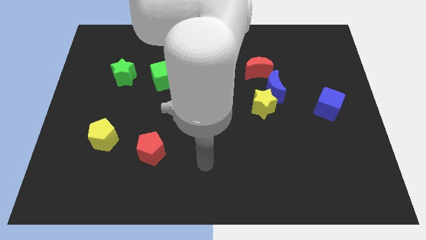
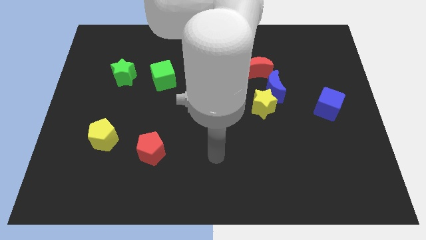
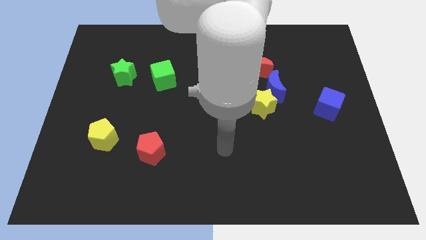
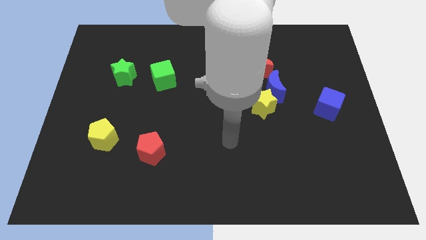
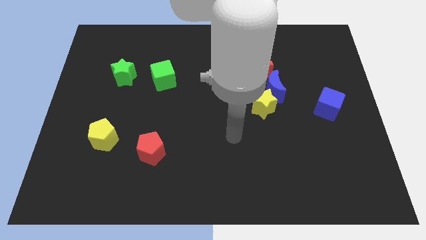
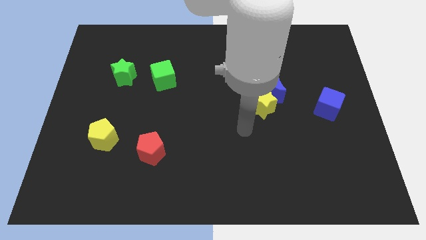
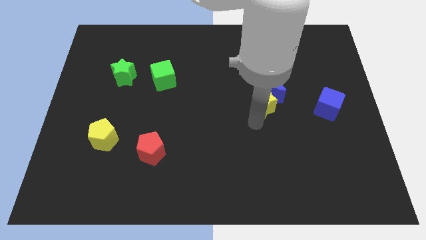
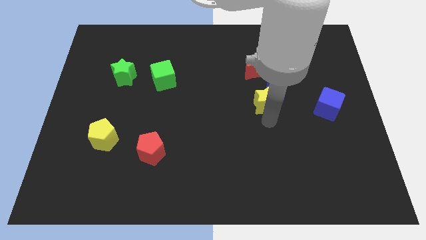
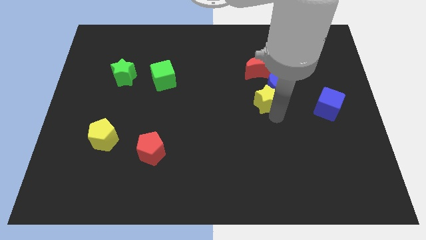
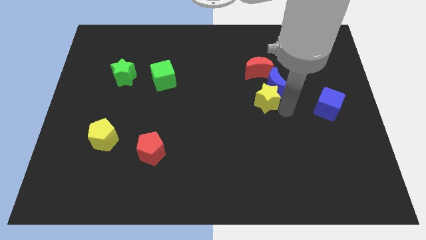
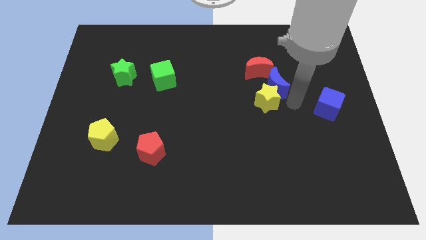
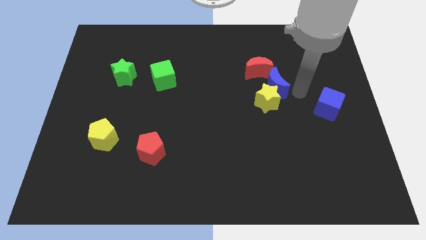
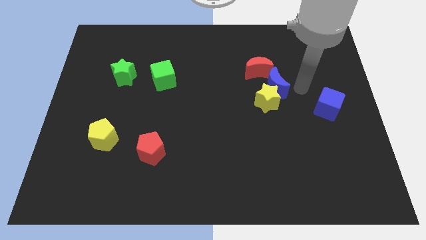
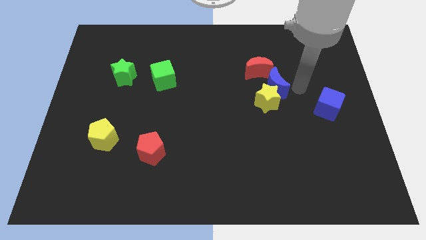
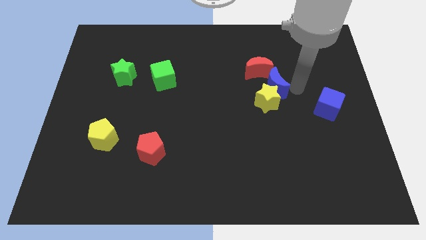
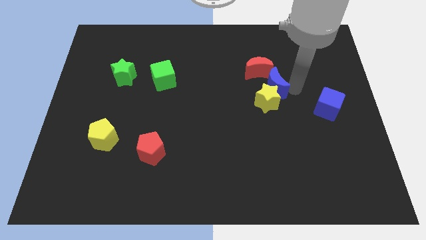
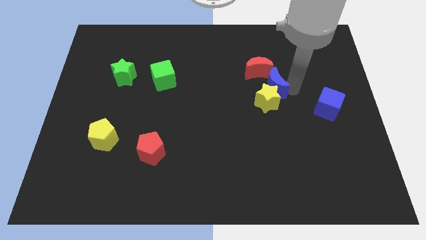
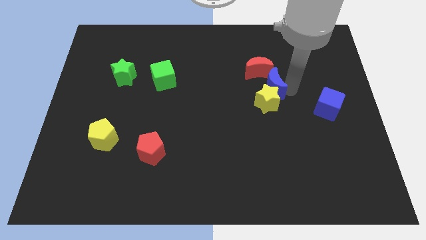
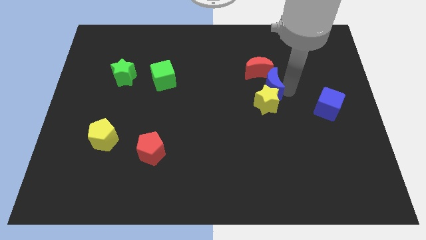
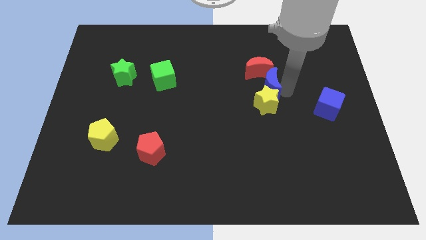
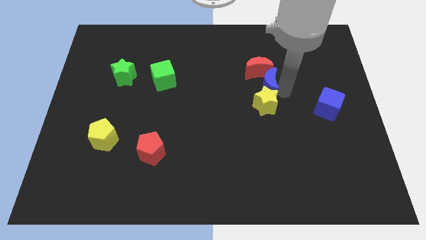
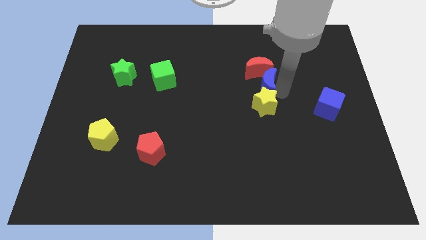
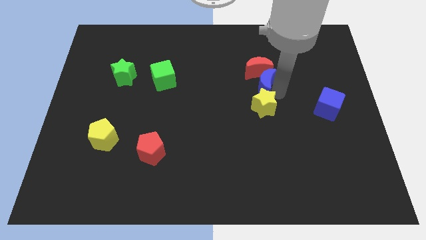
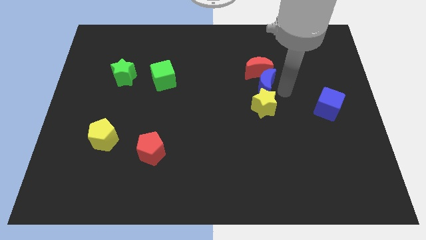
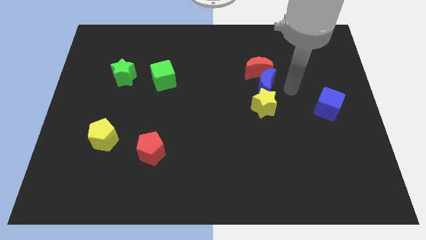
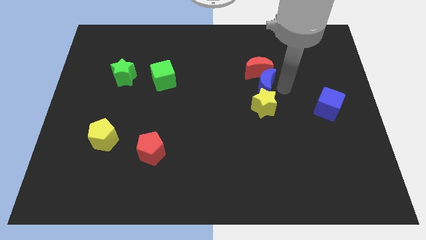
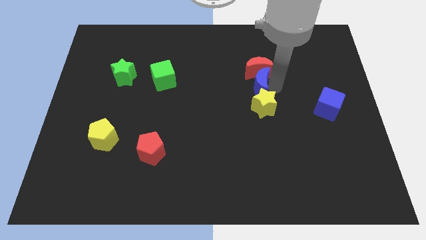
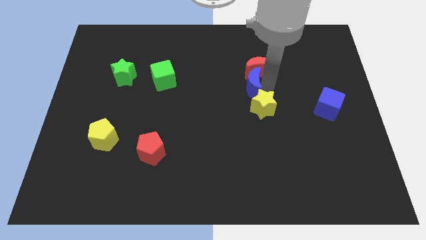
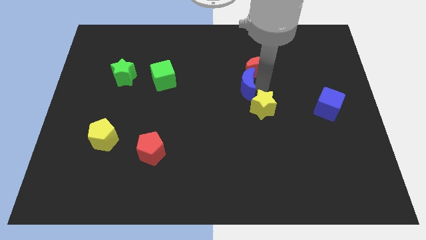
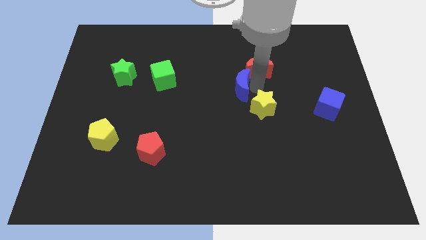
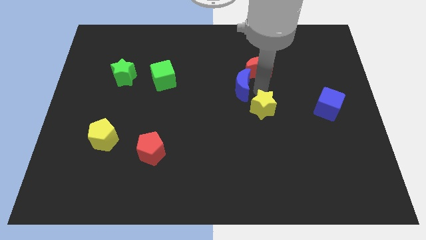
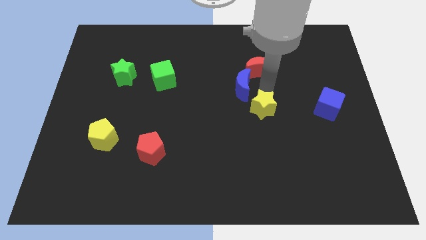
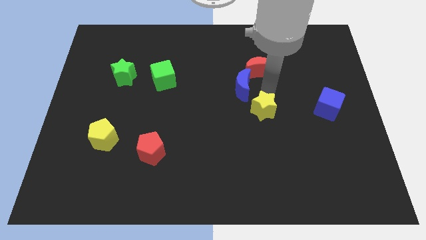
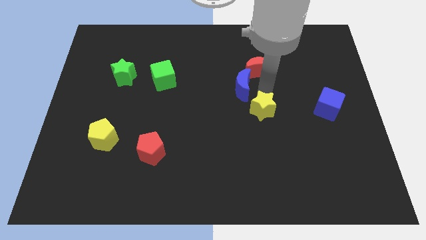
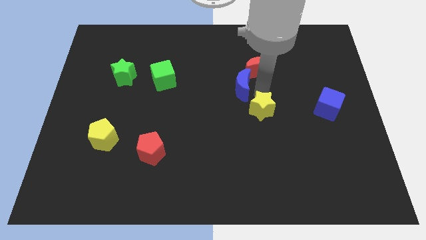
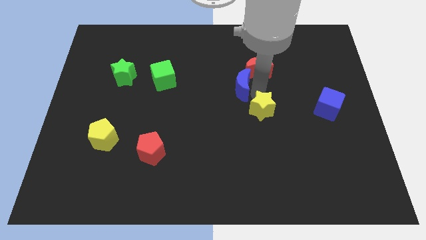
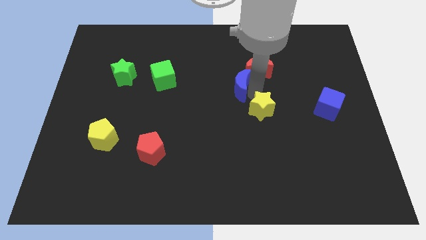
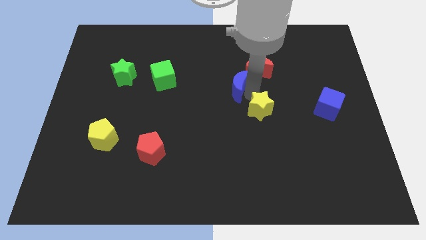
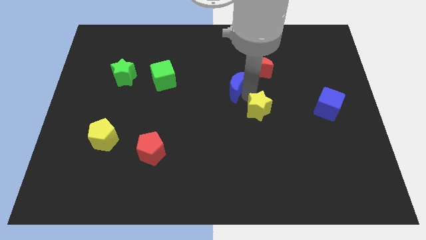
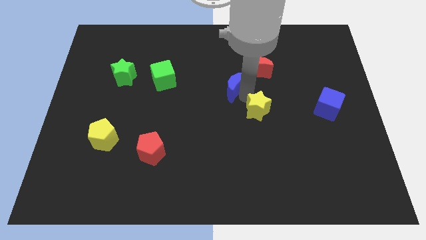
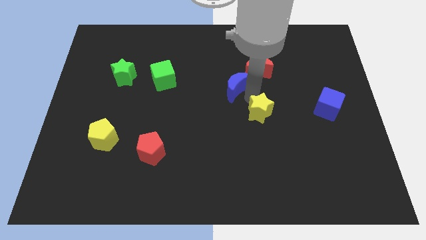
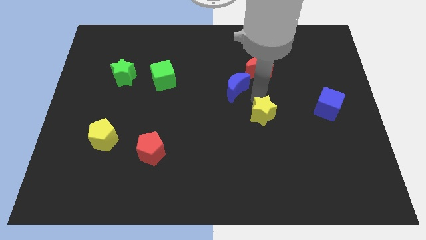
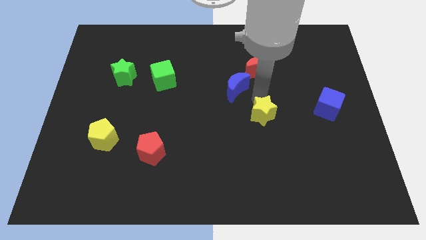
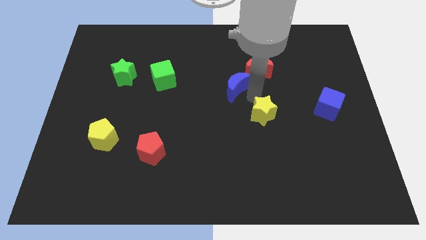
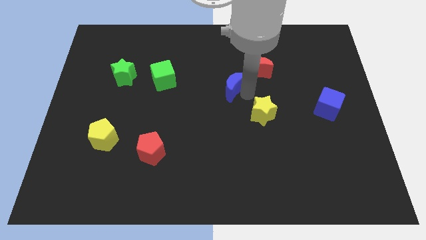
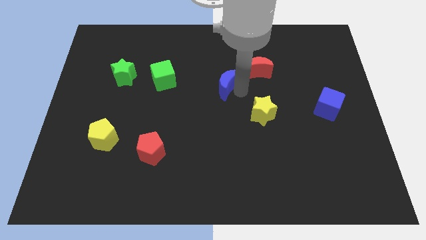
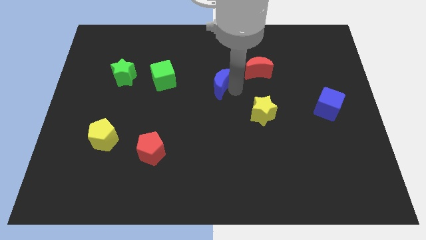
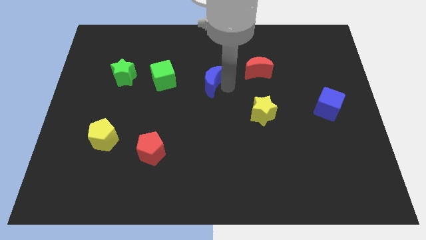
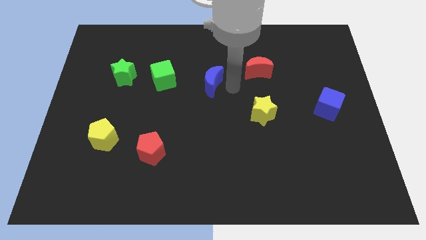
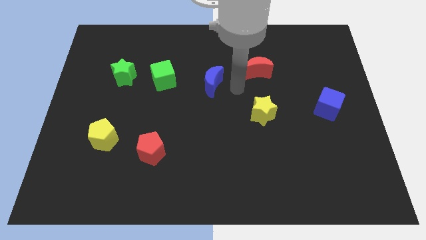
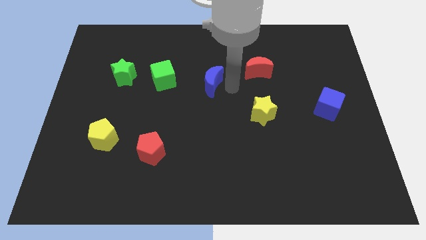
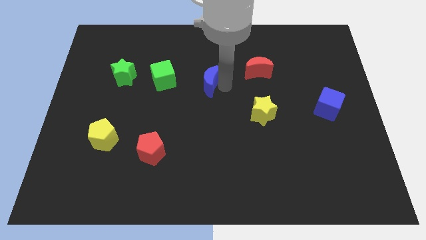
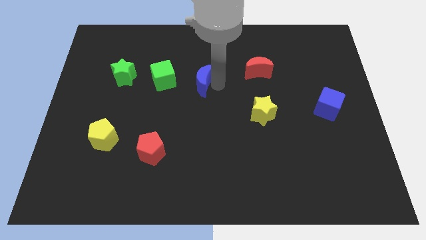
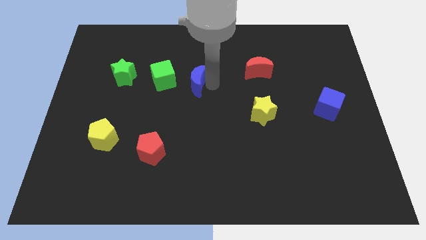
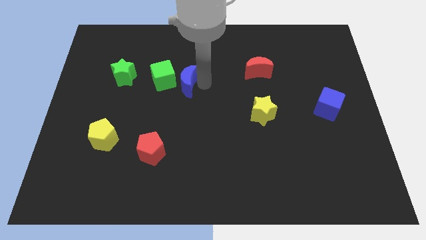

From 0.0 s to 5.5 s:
push the blue moon next to the green cube

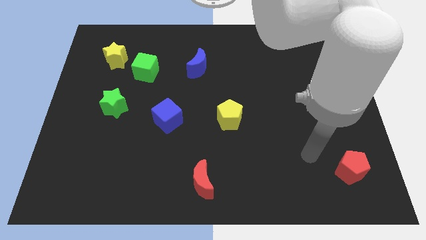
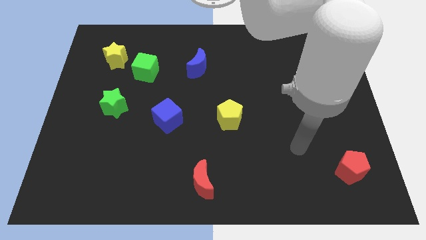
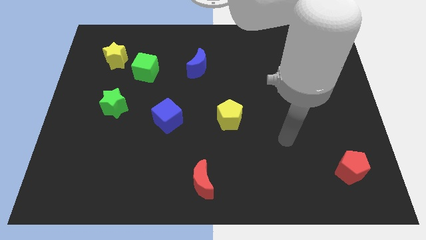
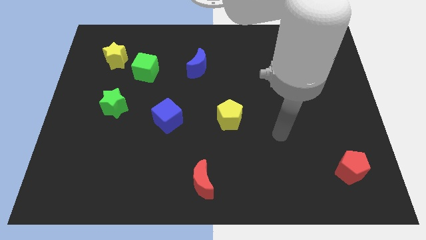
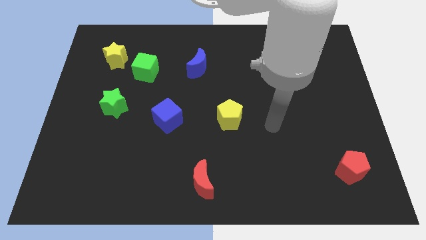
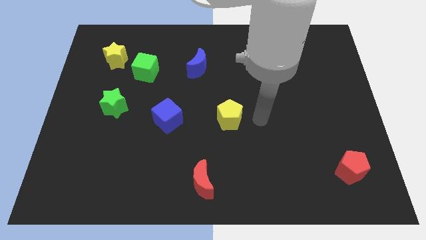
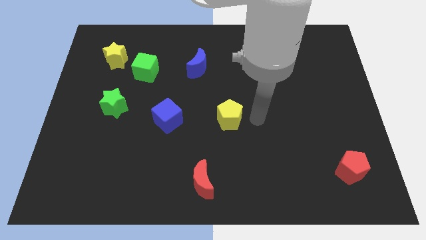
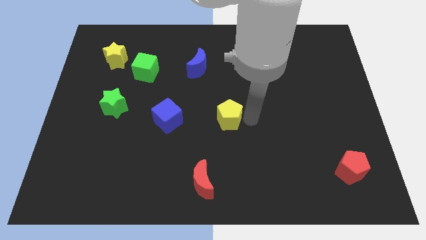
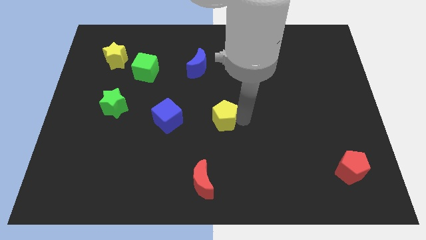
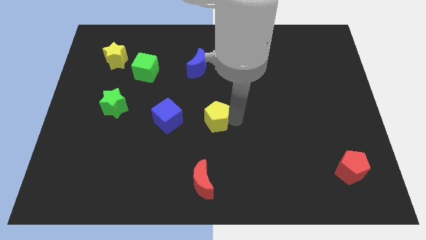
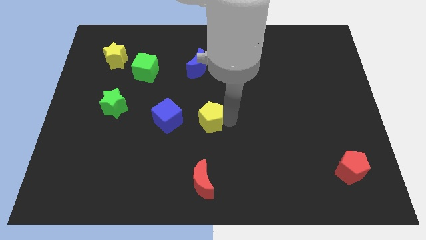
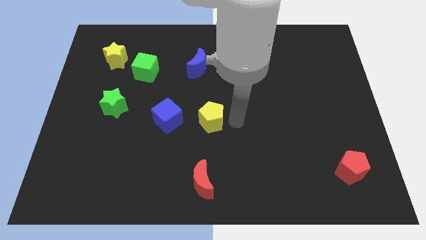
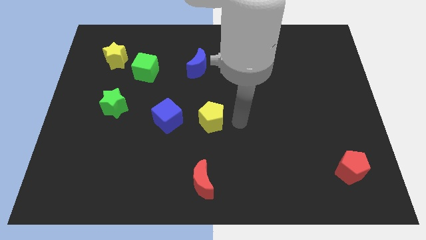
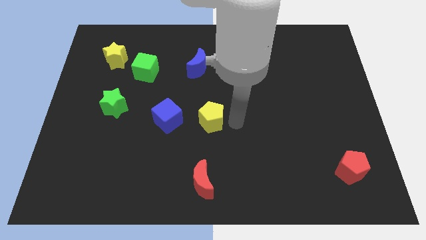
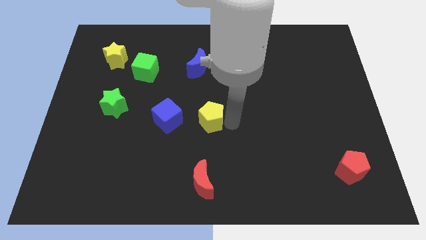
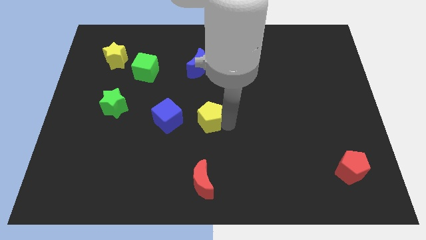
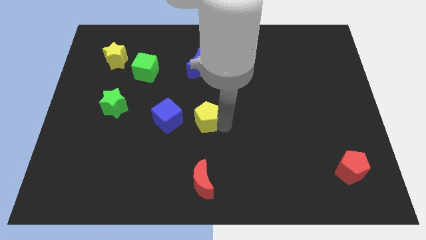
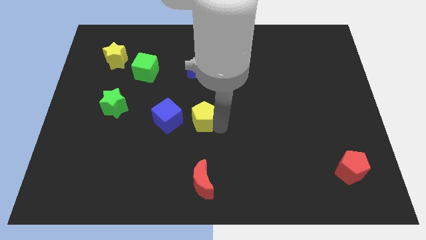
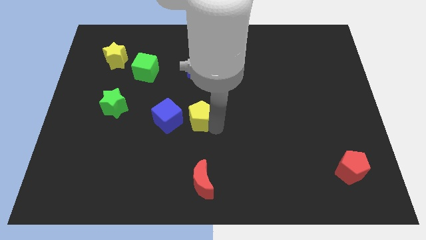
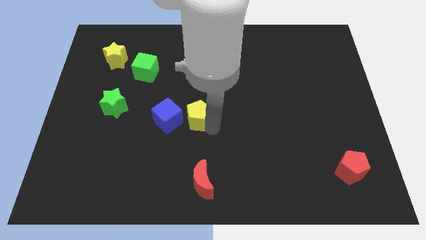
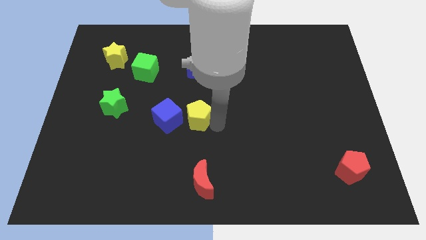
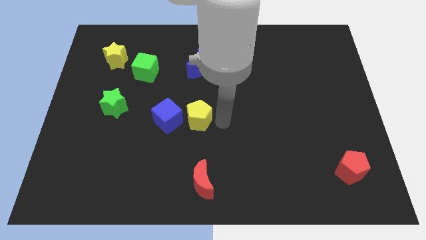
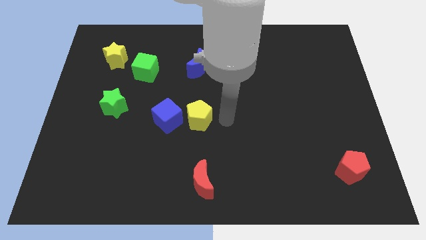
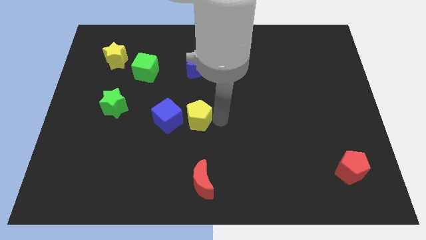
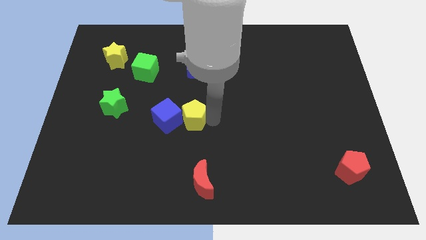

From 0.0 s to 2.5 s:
push the yellow pentagon next to the blue cube
